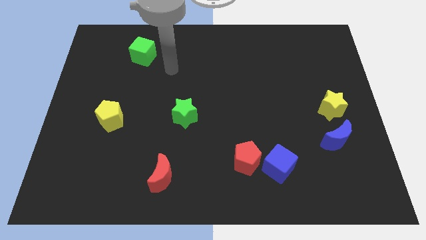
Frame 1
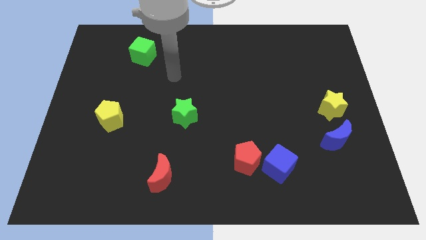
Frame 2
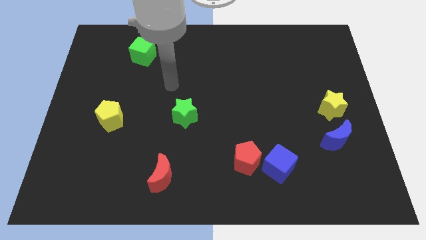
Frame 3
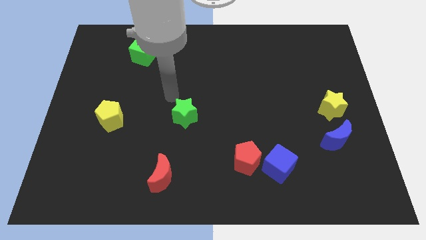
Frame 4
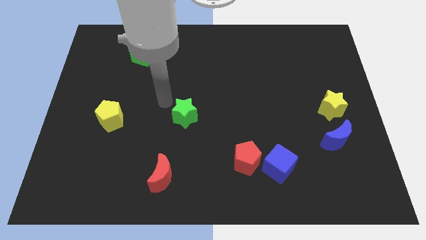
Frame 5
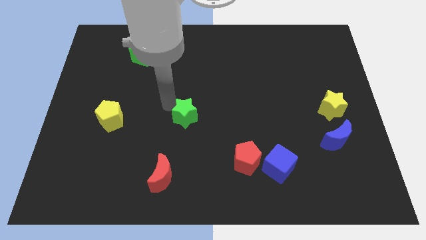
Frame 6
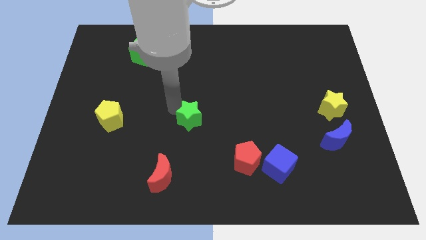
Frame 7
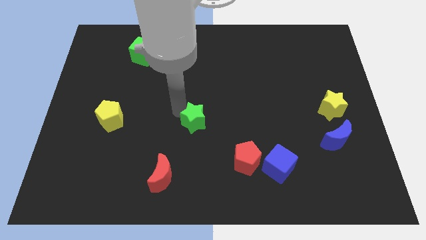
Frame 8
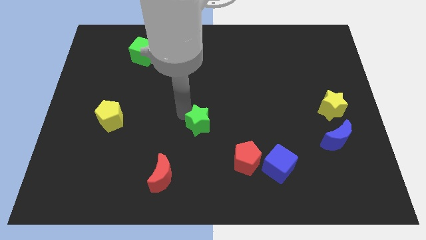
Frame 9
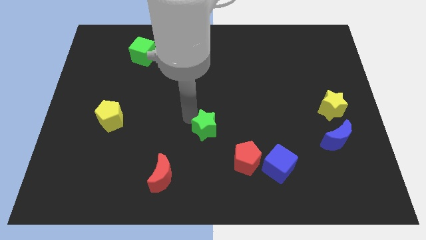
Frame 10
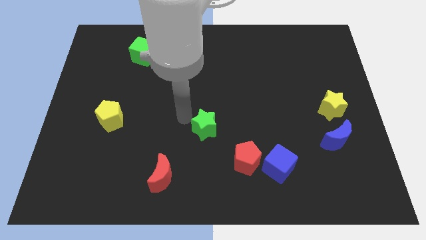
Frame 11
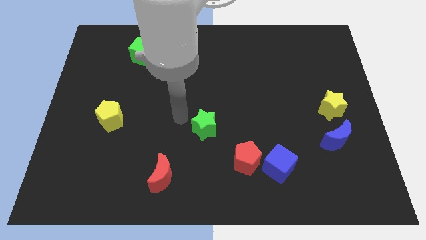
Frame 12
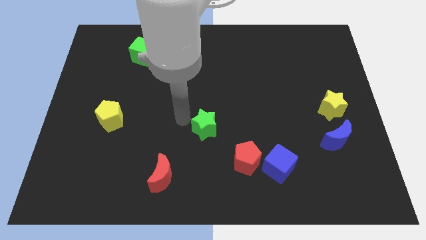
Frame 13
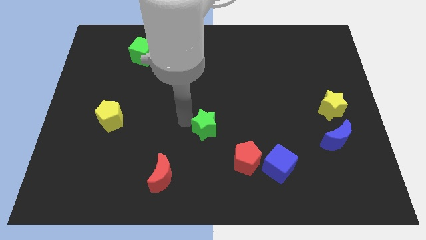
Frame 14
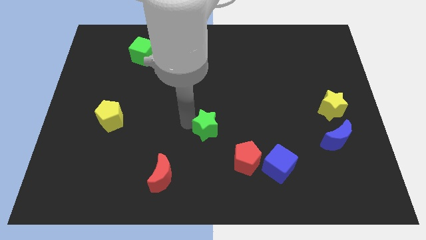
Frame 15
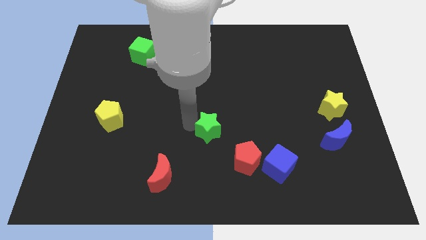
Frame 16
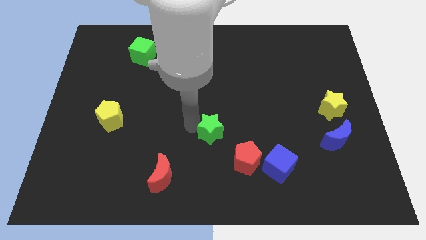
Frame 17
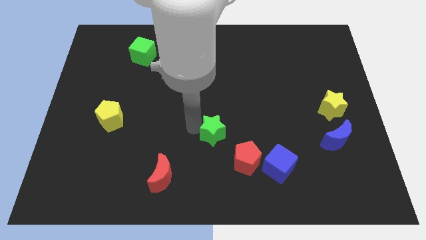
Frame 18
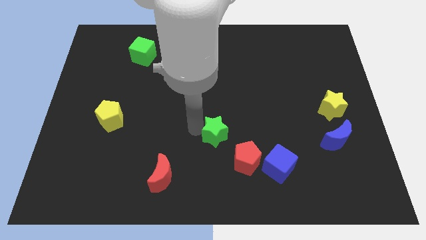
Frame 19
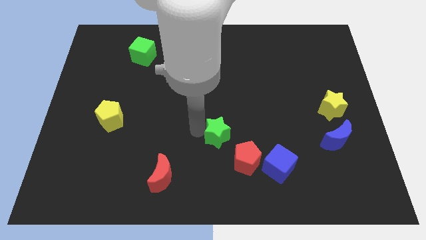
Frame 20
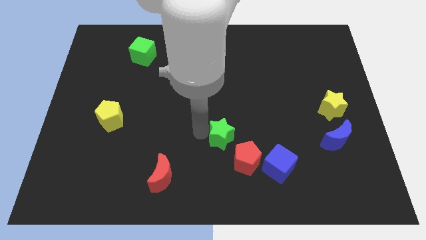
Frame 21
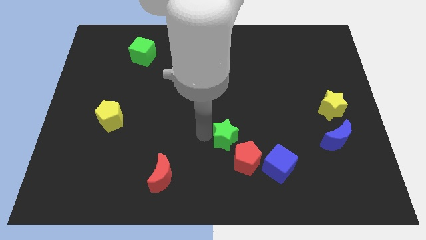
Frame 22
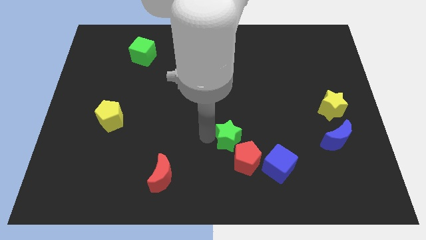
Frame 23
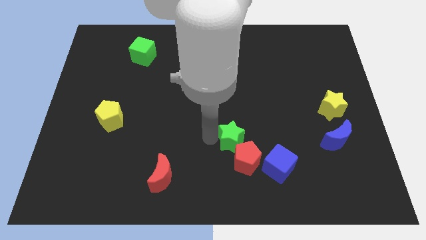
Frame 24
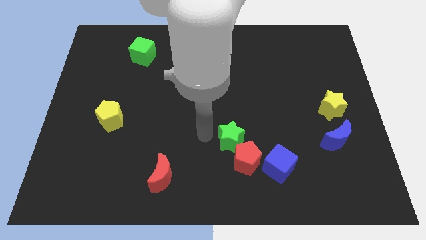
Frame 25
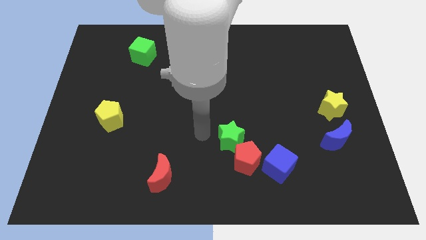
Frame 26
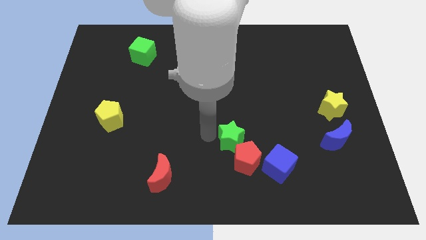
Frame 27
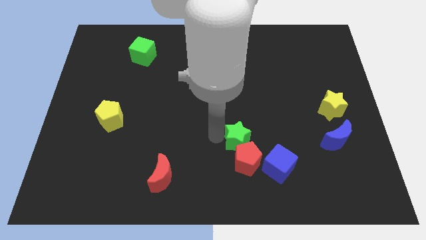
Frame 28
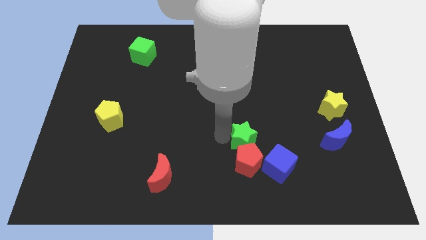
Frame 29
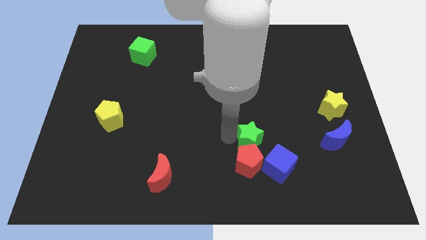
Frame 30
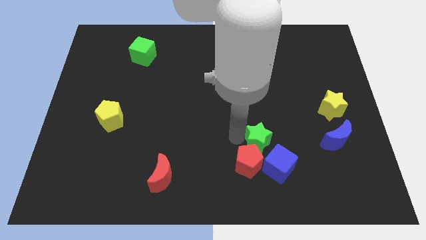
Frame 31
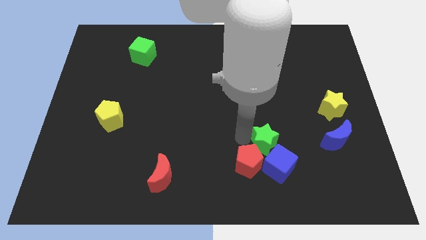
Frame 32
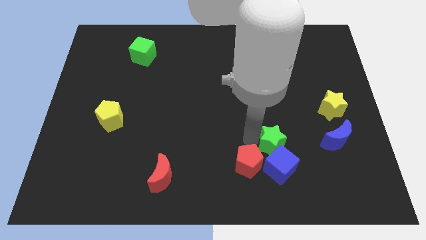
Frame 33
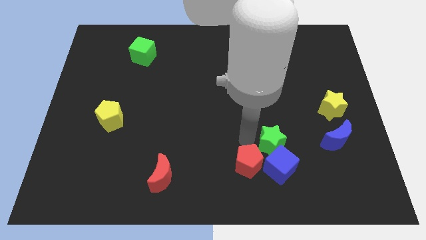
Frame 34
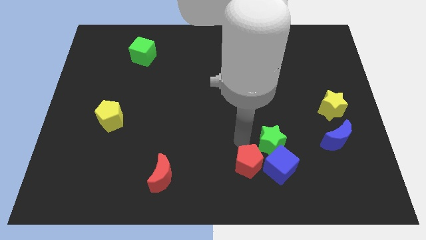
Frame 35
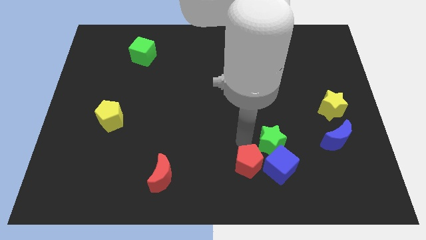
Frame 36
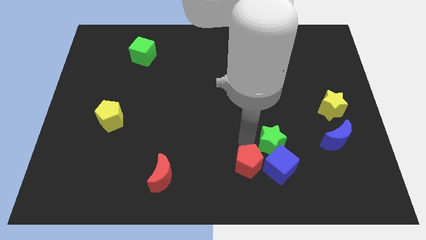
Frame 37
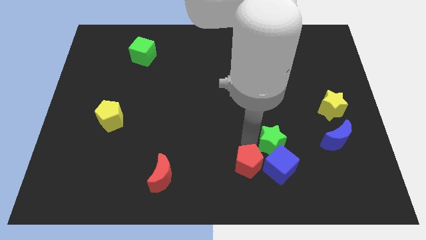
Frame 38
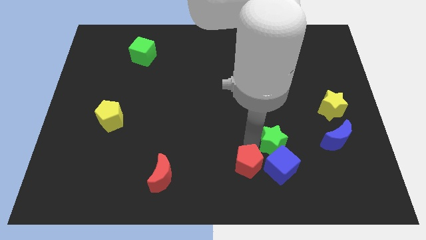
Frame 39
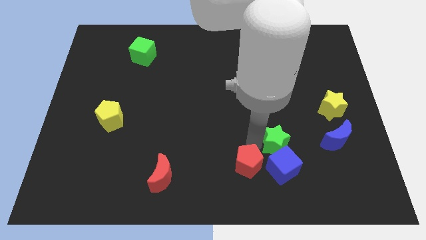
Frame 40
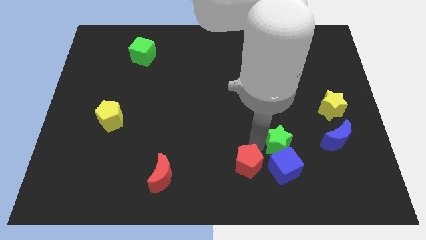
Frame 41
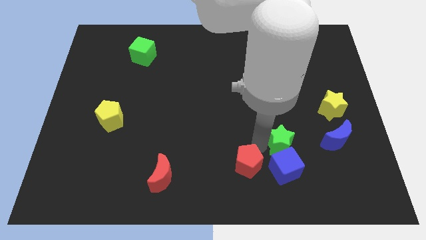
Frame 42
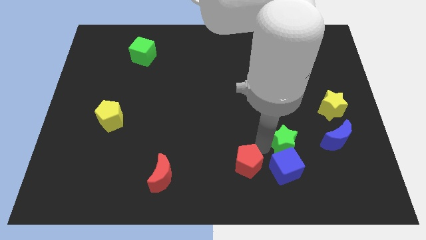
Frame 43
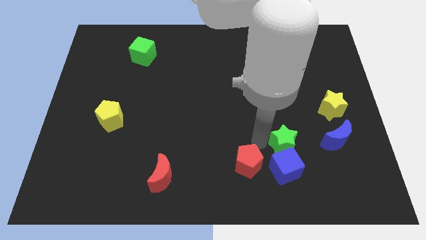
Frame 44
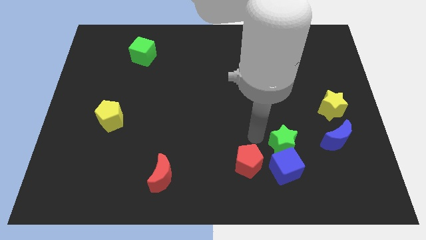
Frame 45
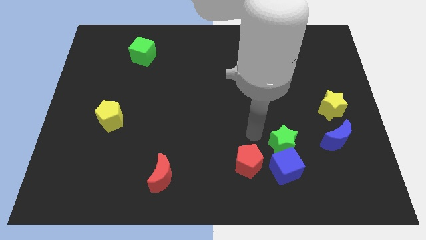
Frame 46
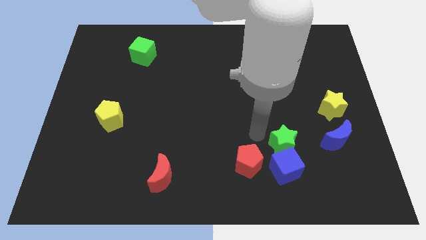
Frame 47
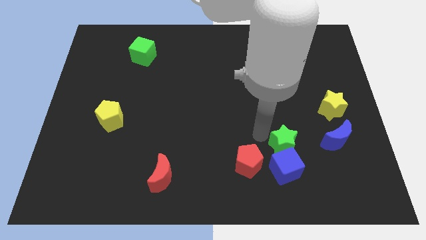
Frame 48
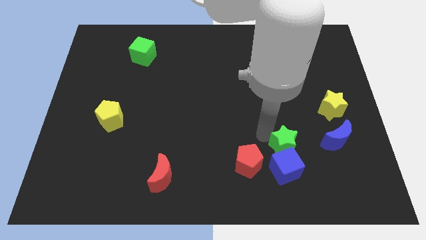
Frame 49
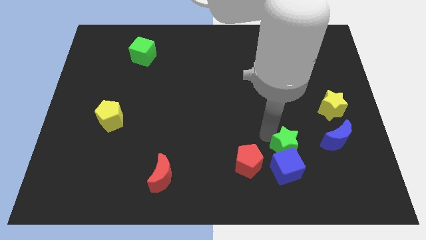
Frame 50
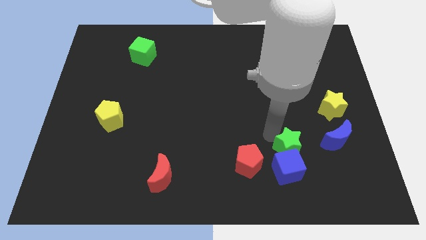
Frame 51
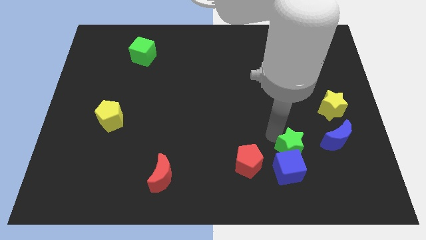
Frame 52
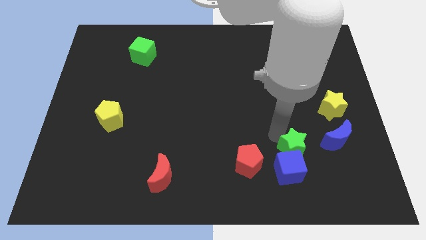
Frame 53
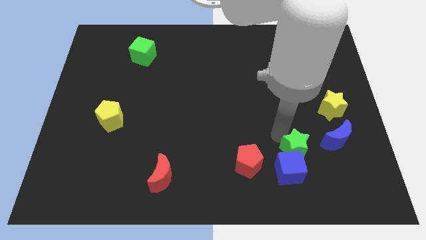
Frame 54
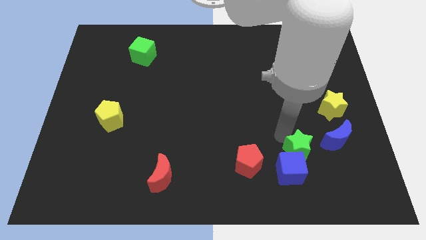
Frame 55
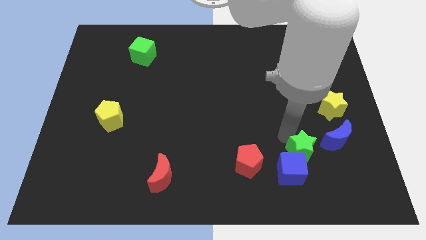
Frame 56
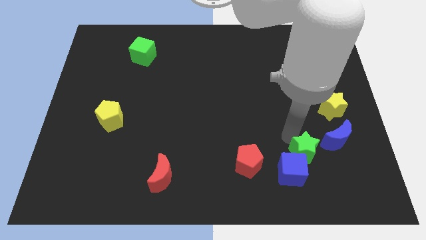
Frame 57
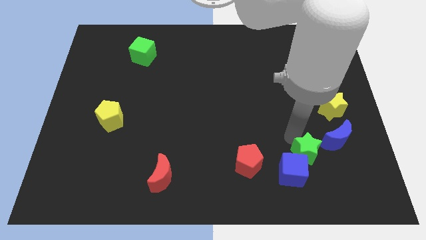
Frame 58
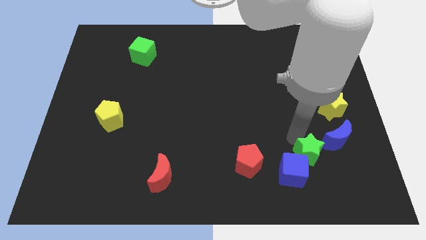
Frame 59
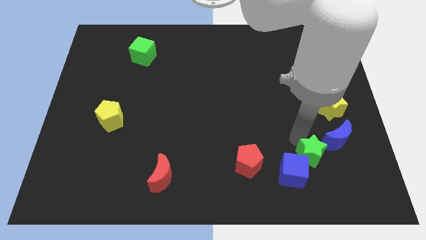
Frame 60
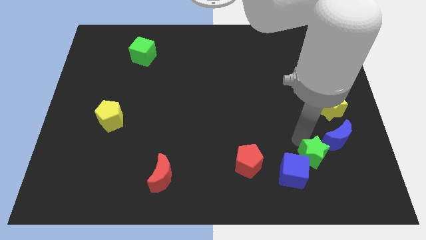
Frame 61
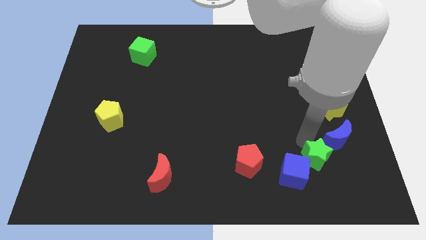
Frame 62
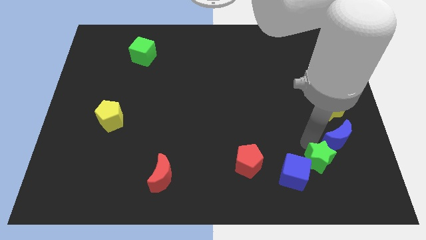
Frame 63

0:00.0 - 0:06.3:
push the green star to the bottom of the blue moon

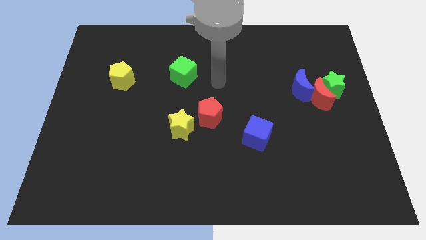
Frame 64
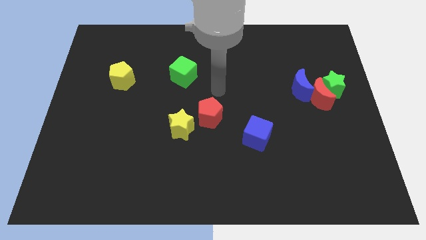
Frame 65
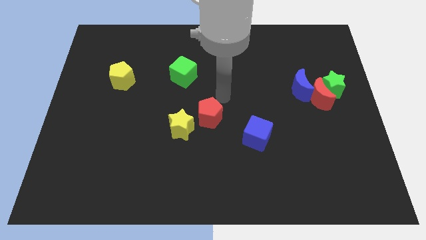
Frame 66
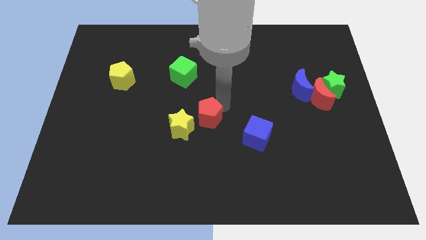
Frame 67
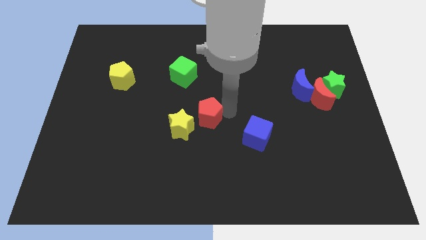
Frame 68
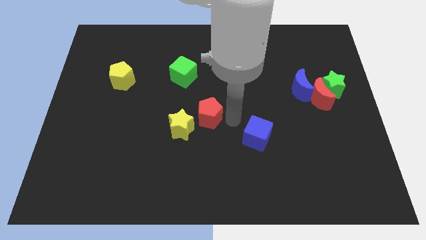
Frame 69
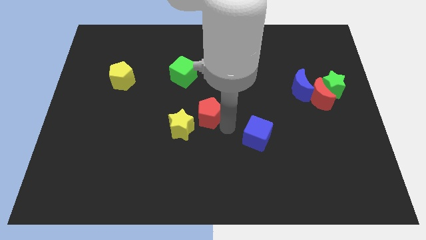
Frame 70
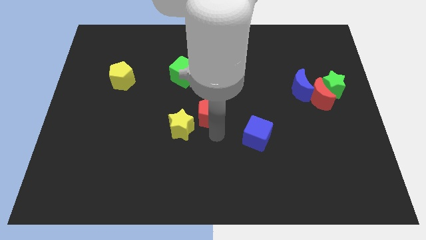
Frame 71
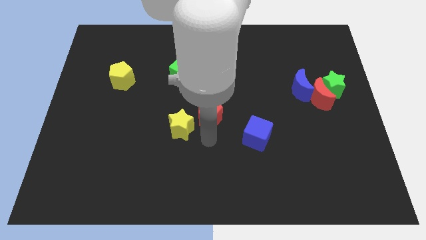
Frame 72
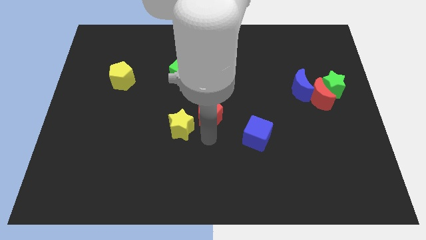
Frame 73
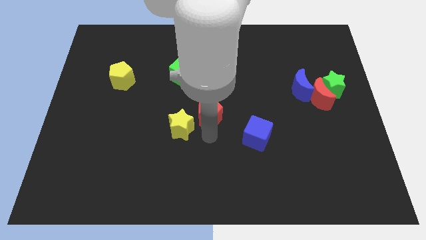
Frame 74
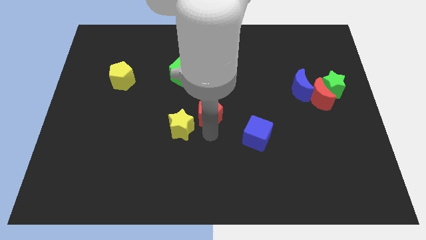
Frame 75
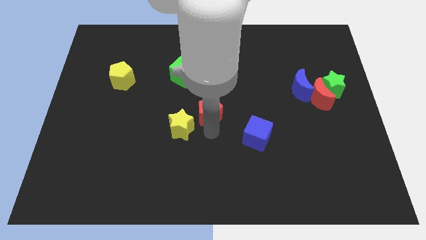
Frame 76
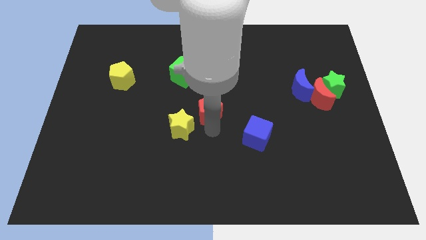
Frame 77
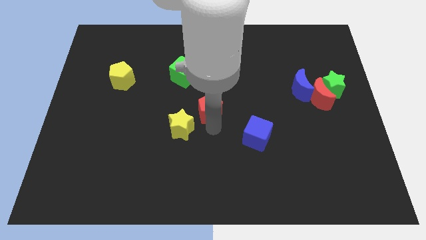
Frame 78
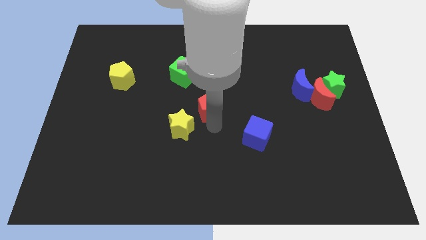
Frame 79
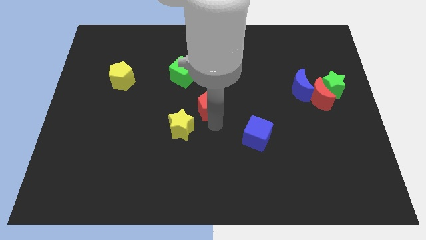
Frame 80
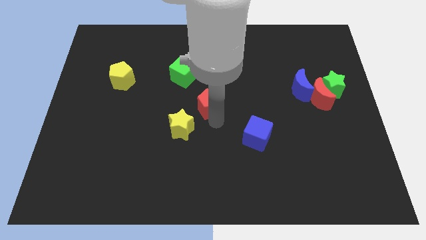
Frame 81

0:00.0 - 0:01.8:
push the red pentagon to the bottom right of the green cube
